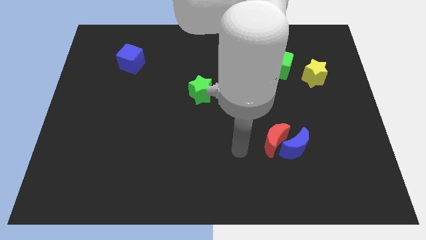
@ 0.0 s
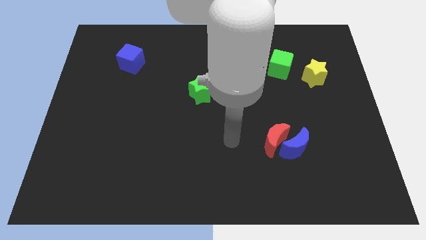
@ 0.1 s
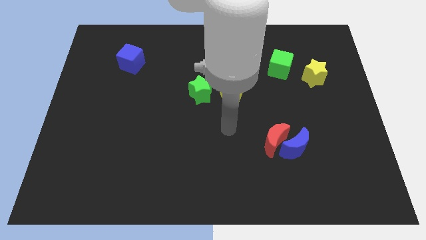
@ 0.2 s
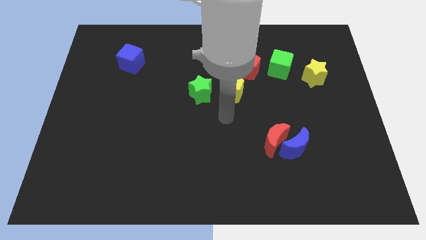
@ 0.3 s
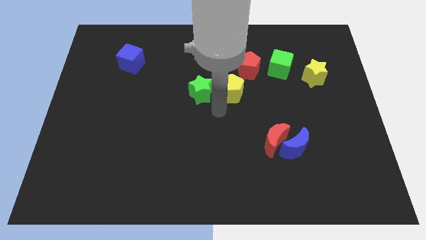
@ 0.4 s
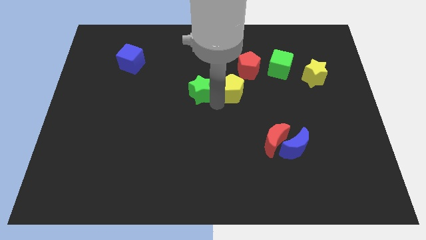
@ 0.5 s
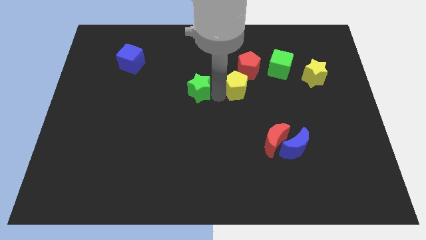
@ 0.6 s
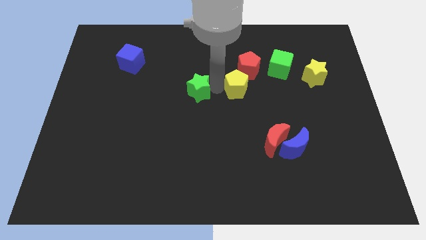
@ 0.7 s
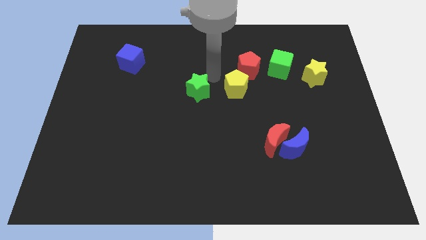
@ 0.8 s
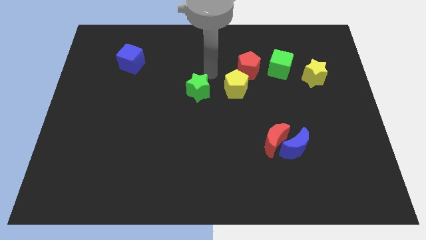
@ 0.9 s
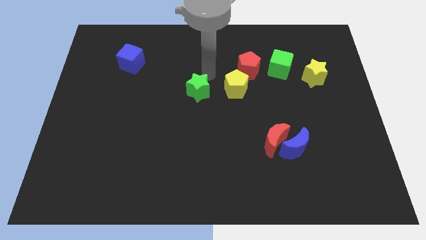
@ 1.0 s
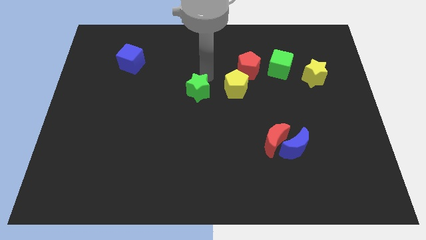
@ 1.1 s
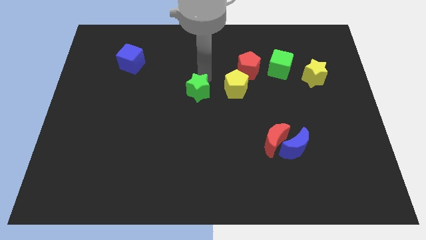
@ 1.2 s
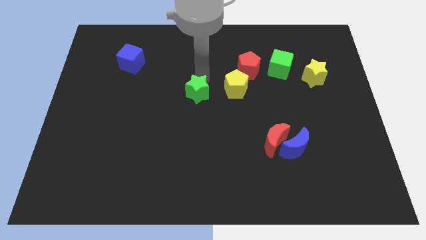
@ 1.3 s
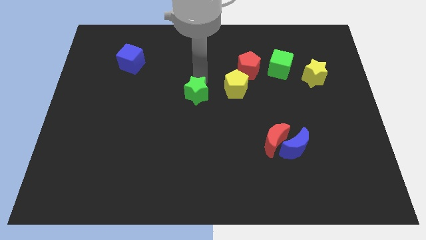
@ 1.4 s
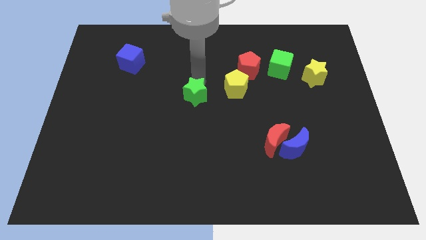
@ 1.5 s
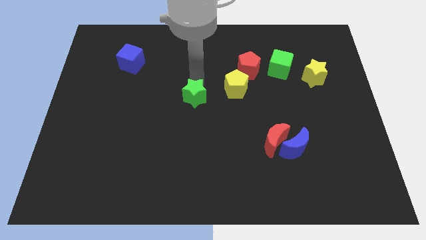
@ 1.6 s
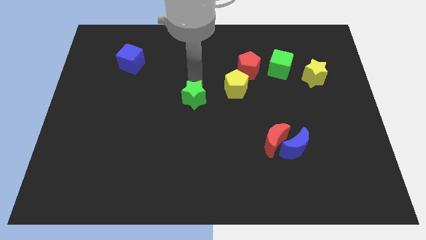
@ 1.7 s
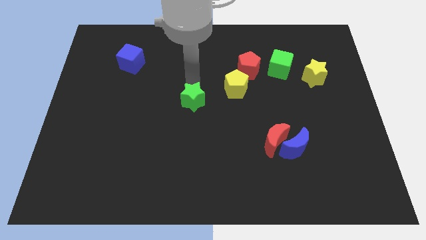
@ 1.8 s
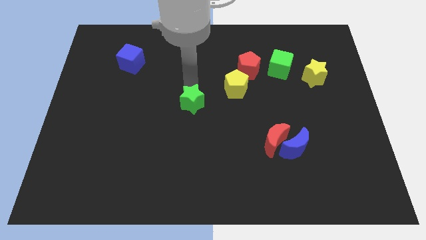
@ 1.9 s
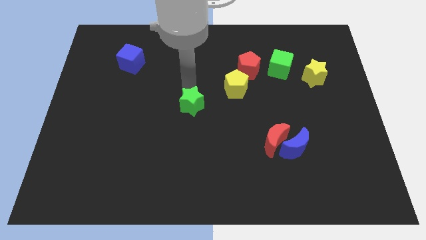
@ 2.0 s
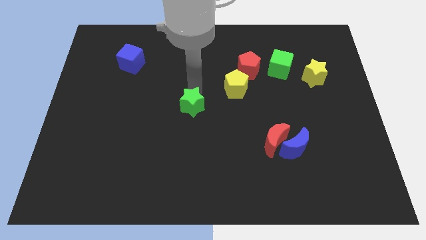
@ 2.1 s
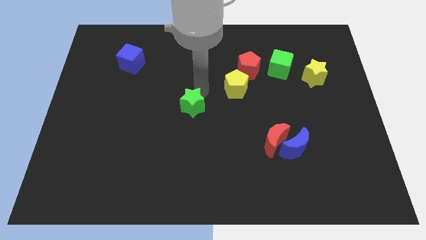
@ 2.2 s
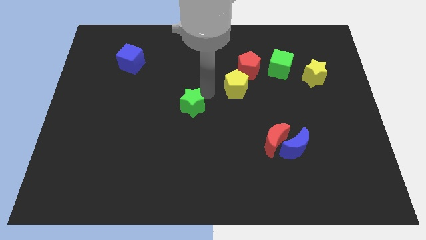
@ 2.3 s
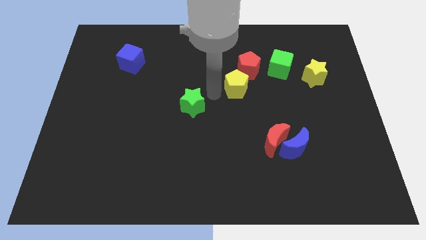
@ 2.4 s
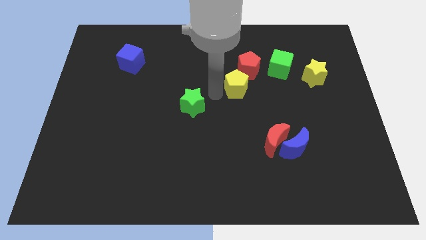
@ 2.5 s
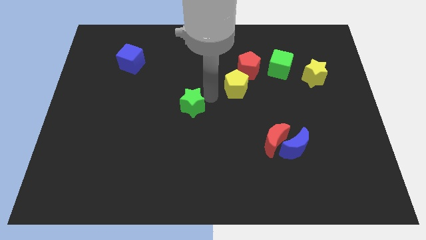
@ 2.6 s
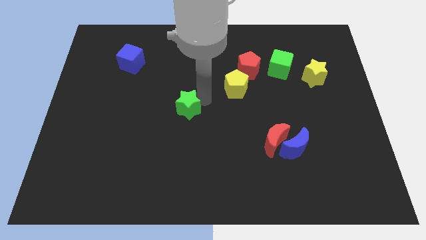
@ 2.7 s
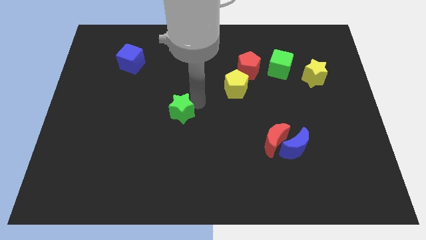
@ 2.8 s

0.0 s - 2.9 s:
push the green star a little diagonally downwards and left

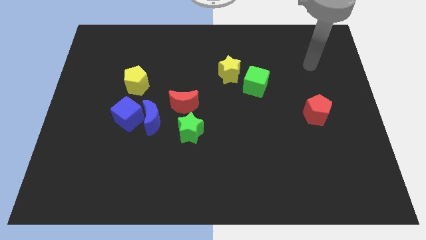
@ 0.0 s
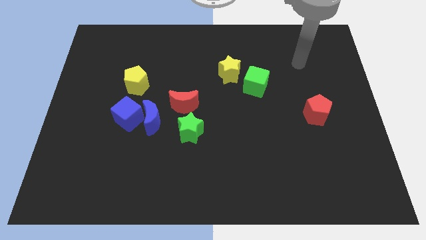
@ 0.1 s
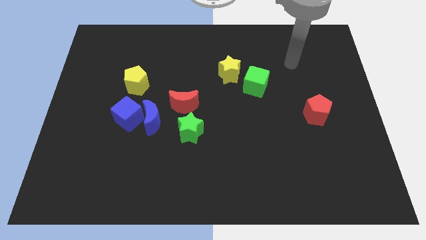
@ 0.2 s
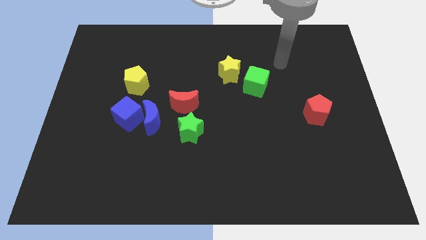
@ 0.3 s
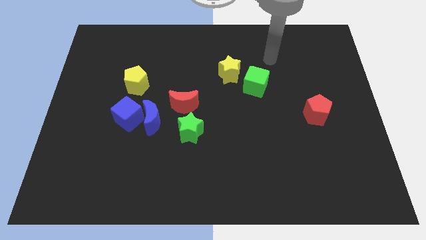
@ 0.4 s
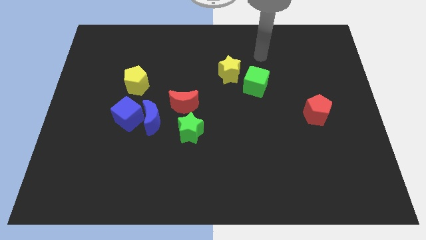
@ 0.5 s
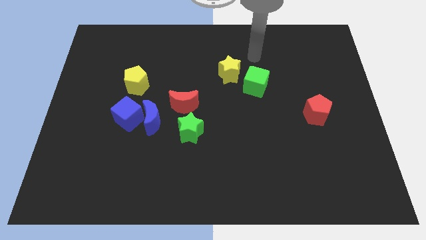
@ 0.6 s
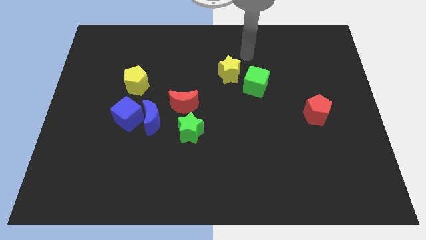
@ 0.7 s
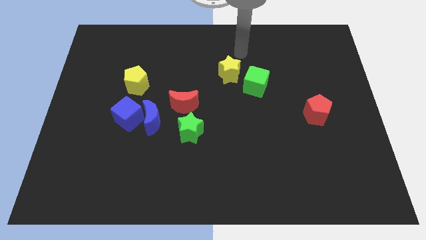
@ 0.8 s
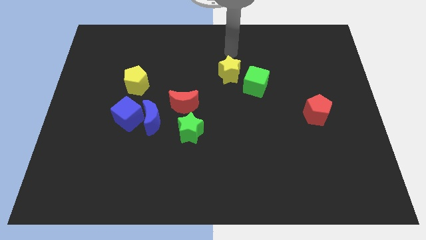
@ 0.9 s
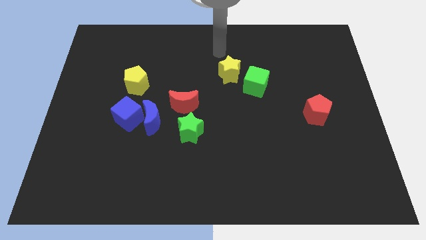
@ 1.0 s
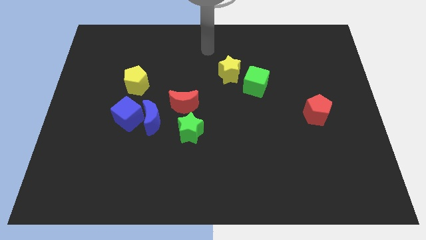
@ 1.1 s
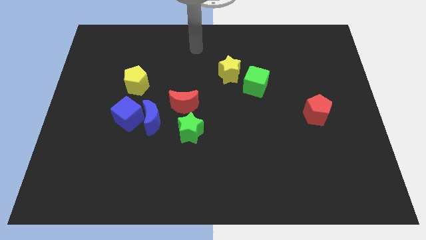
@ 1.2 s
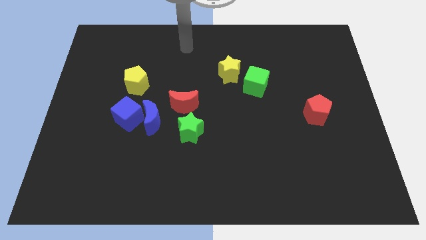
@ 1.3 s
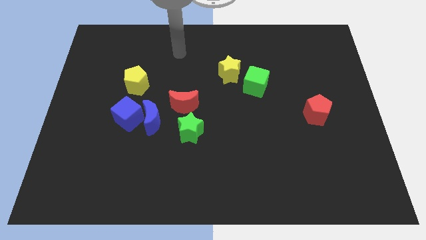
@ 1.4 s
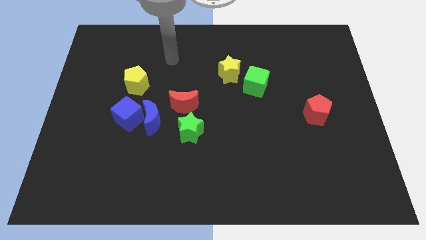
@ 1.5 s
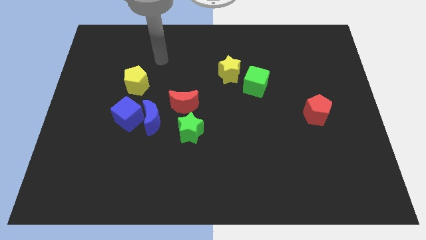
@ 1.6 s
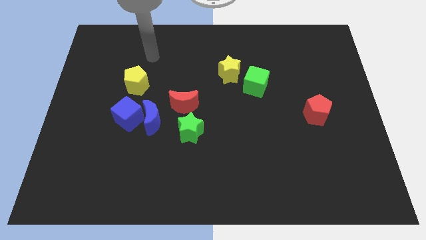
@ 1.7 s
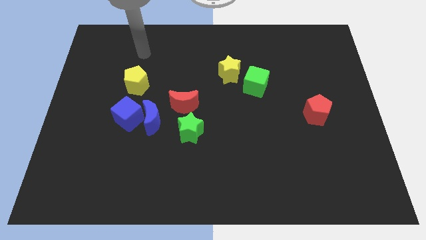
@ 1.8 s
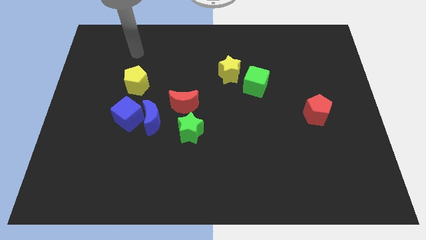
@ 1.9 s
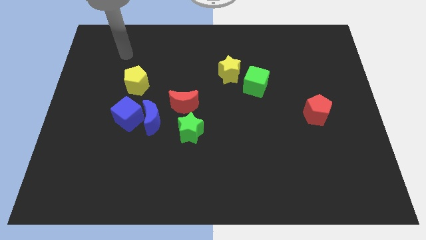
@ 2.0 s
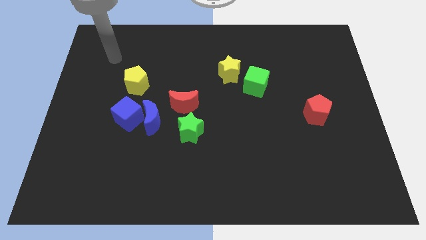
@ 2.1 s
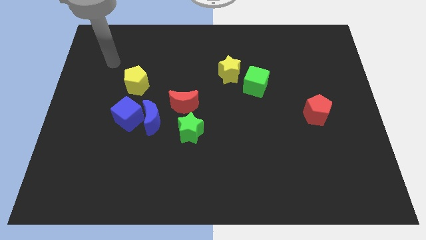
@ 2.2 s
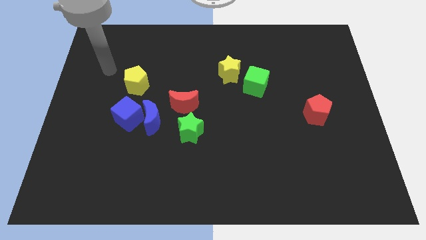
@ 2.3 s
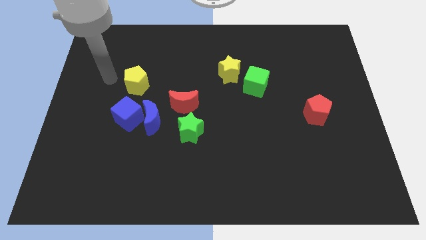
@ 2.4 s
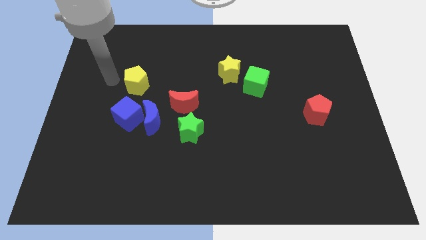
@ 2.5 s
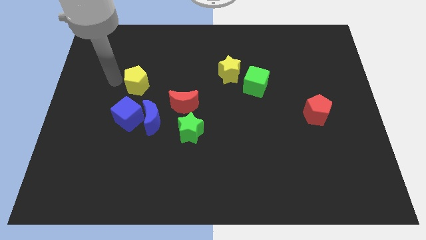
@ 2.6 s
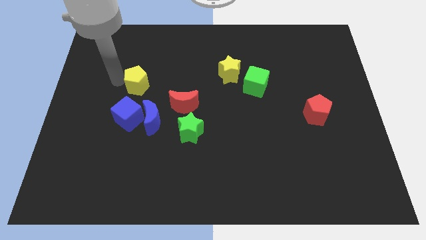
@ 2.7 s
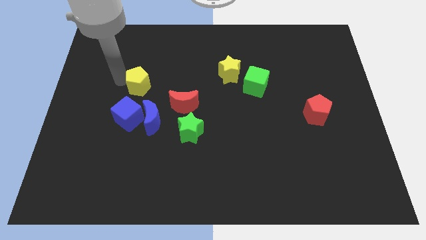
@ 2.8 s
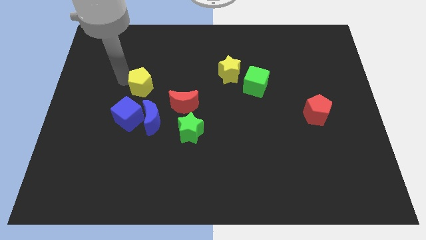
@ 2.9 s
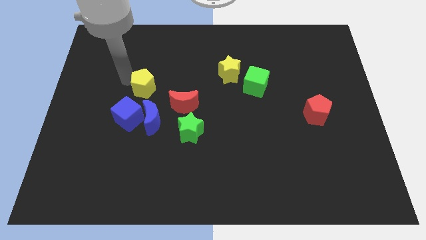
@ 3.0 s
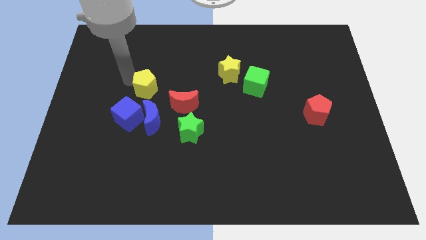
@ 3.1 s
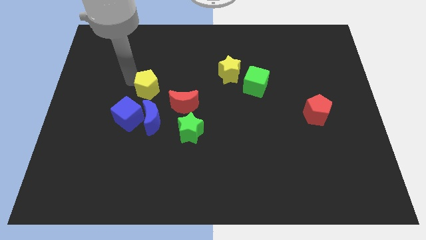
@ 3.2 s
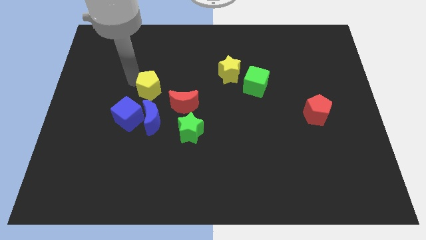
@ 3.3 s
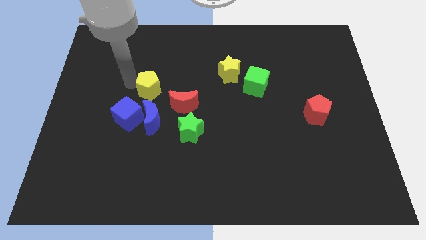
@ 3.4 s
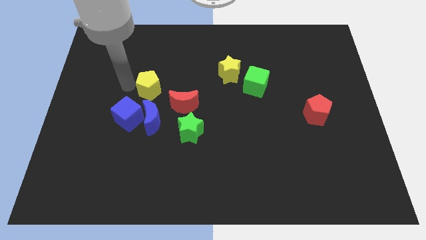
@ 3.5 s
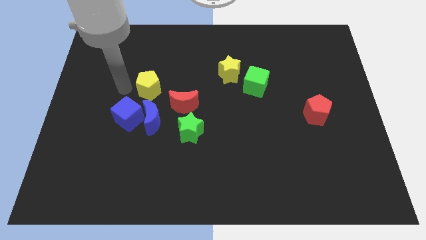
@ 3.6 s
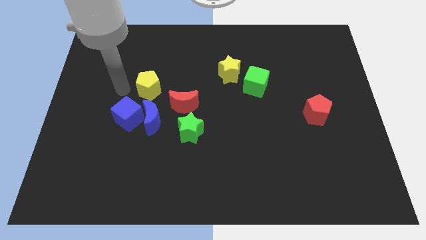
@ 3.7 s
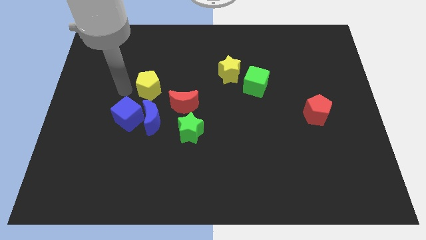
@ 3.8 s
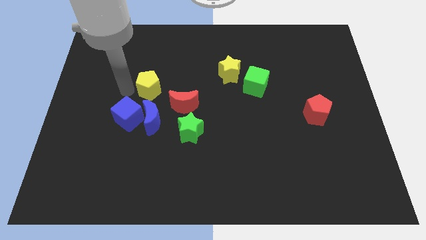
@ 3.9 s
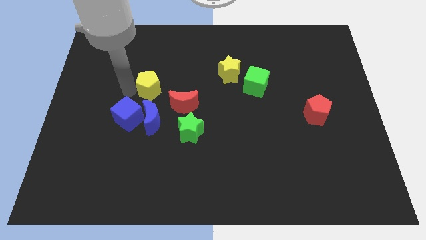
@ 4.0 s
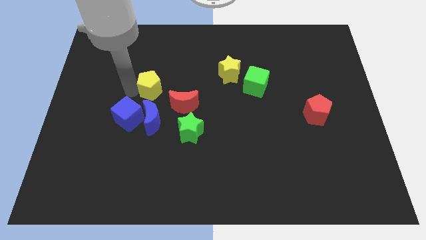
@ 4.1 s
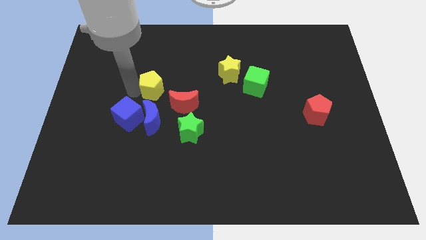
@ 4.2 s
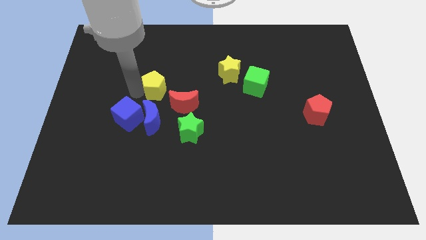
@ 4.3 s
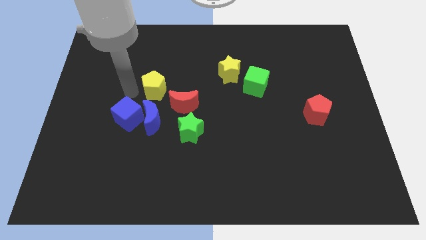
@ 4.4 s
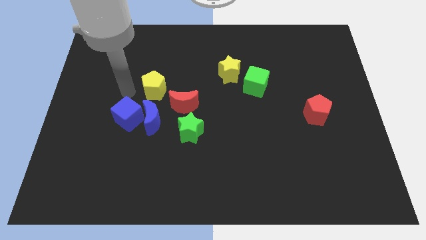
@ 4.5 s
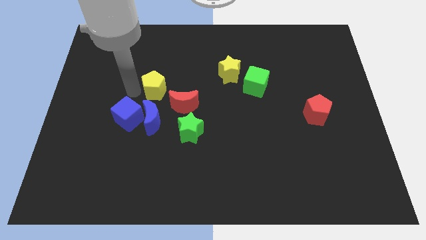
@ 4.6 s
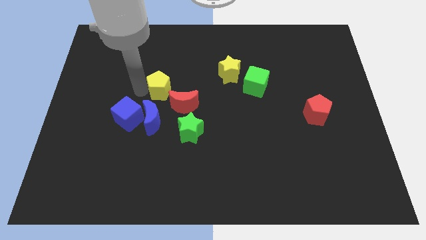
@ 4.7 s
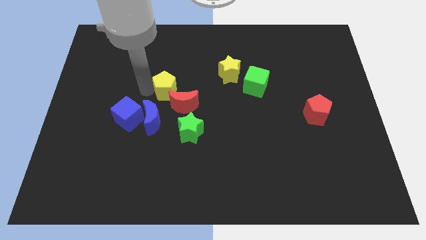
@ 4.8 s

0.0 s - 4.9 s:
slightly move the yellow pentagon right

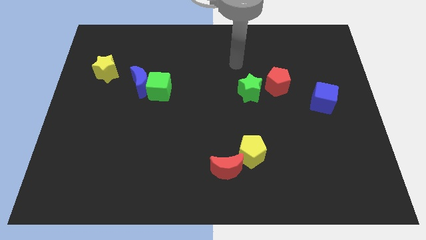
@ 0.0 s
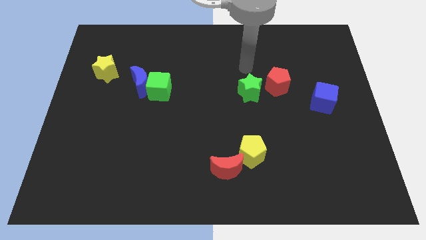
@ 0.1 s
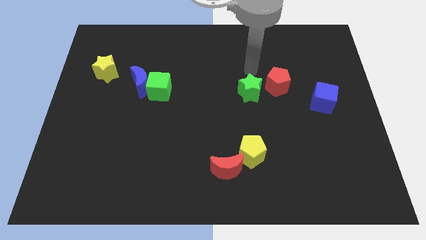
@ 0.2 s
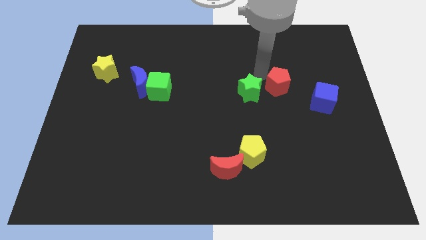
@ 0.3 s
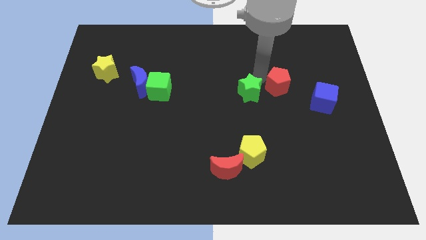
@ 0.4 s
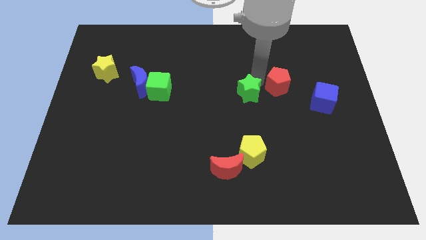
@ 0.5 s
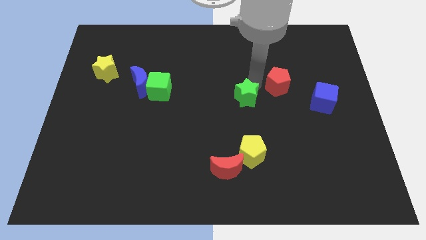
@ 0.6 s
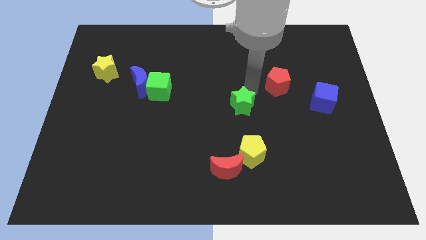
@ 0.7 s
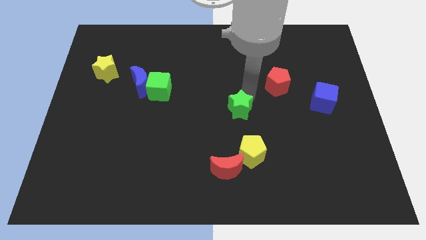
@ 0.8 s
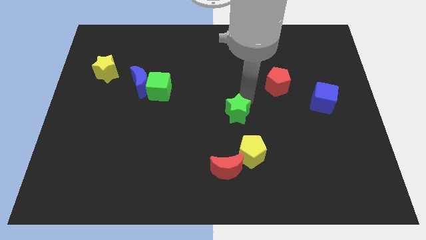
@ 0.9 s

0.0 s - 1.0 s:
push the green star downwards and left a bit
